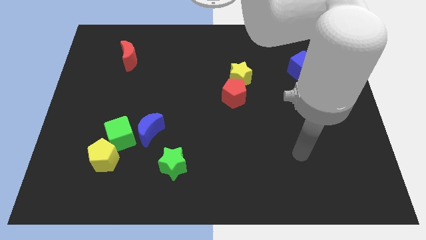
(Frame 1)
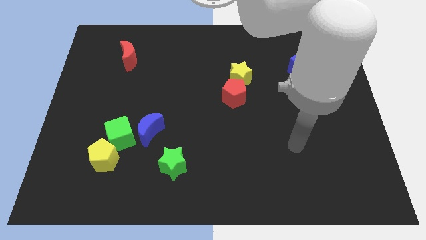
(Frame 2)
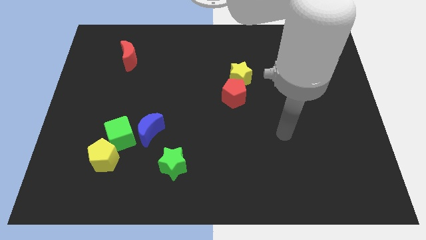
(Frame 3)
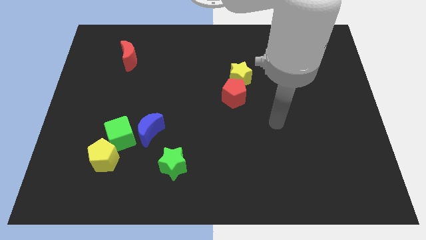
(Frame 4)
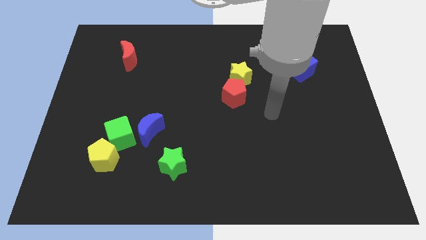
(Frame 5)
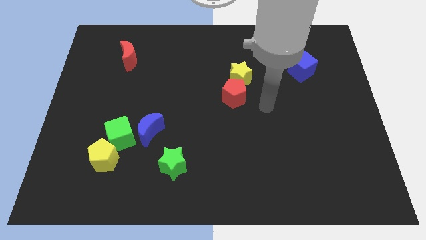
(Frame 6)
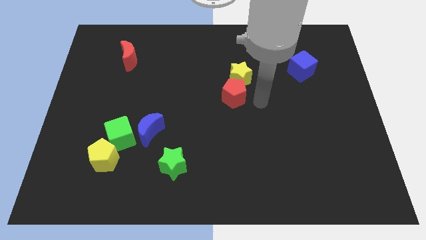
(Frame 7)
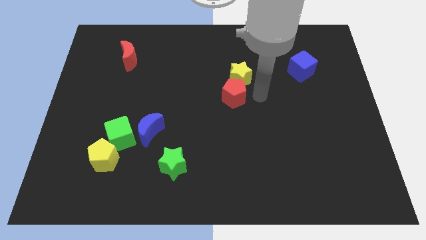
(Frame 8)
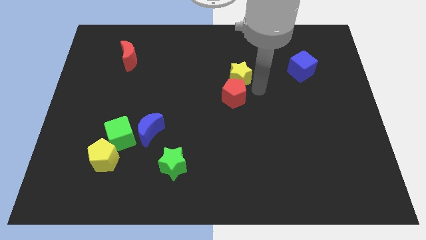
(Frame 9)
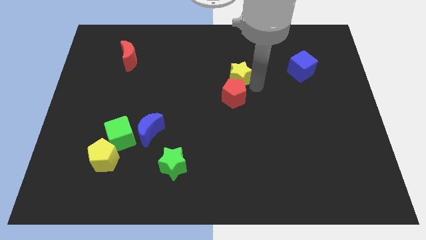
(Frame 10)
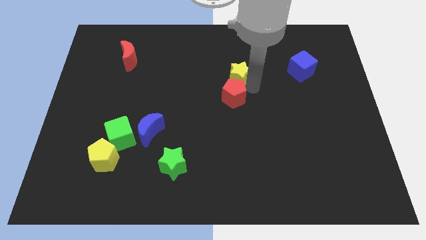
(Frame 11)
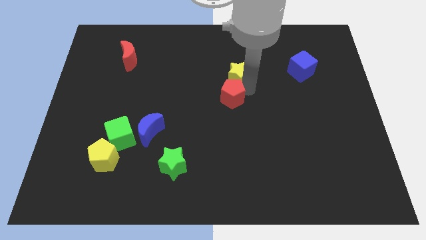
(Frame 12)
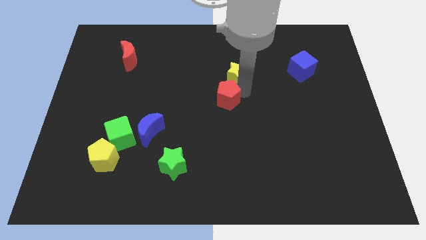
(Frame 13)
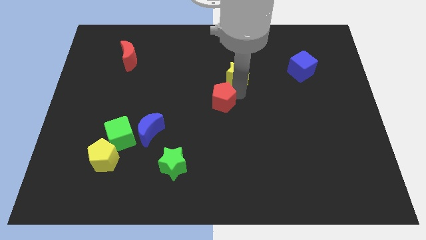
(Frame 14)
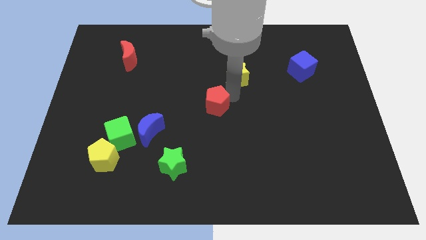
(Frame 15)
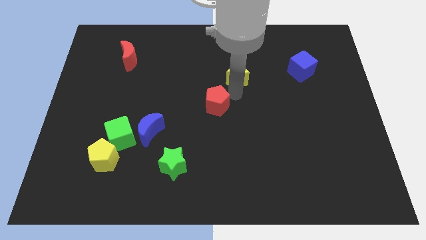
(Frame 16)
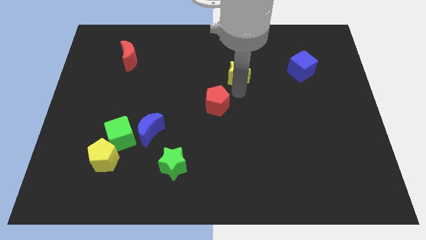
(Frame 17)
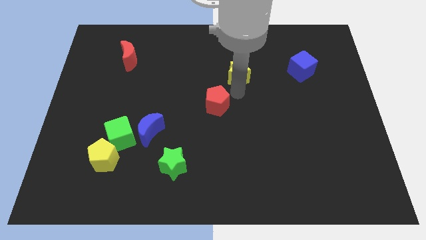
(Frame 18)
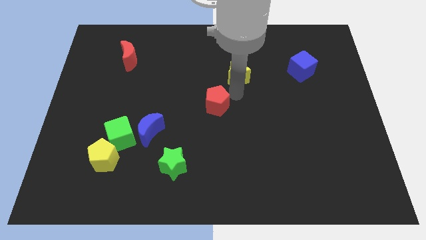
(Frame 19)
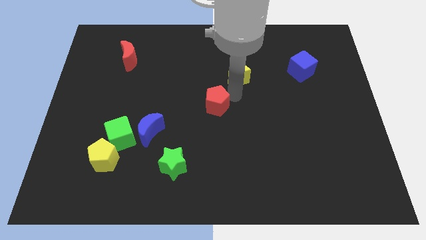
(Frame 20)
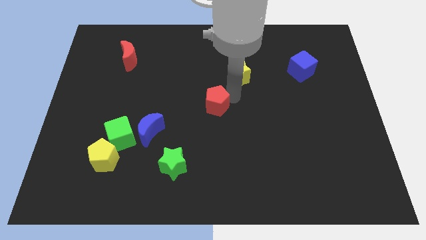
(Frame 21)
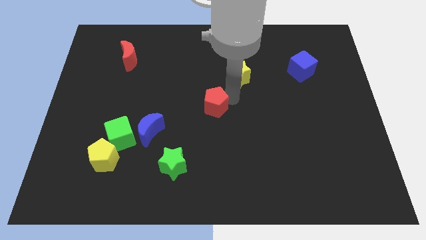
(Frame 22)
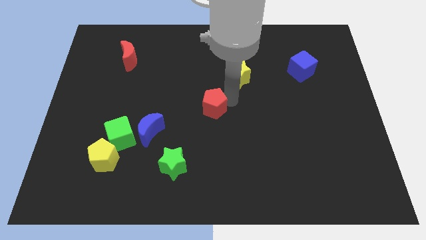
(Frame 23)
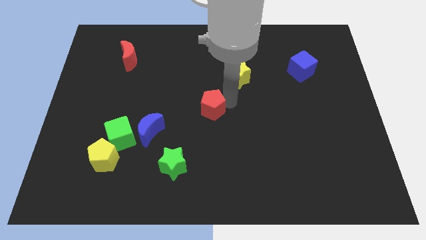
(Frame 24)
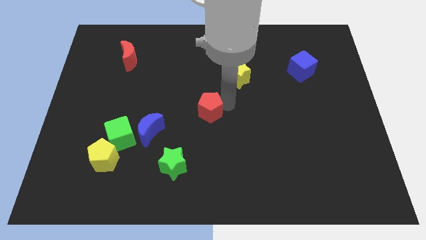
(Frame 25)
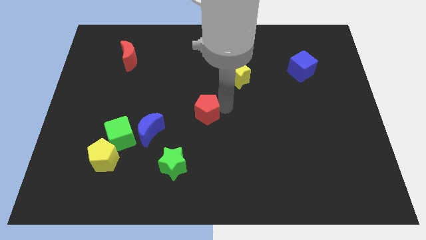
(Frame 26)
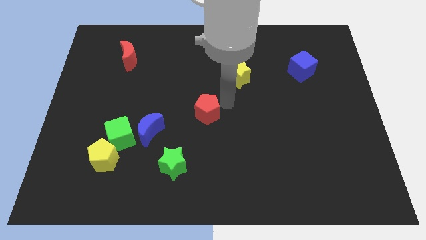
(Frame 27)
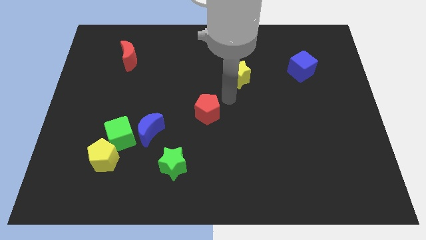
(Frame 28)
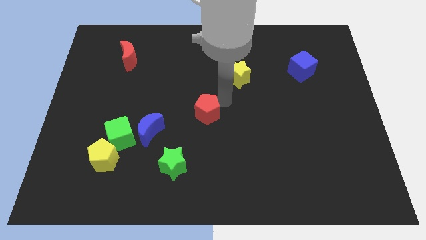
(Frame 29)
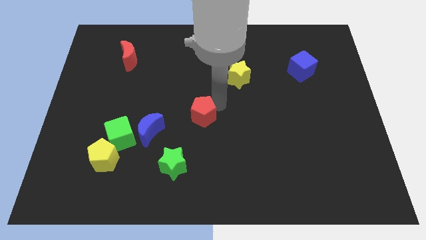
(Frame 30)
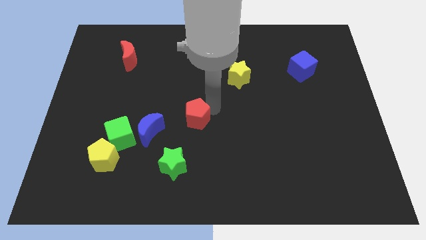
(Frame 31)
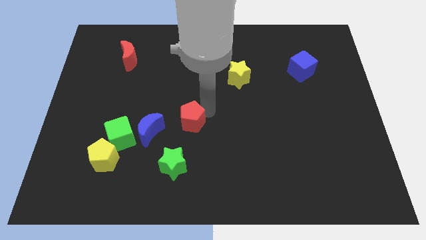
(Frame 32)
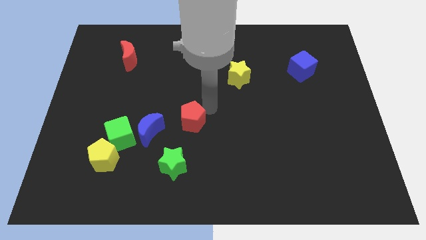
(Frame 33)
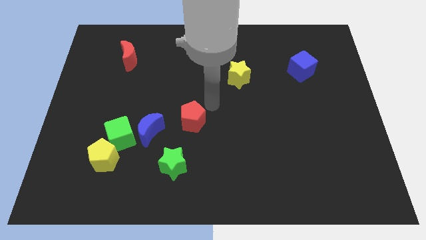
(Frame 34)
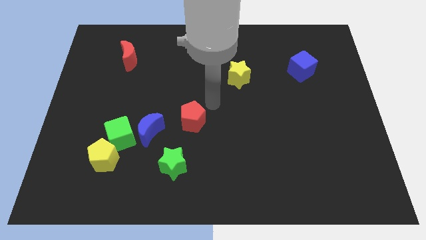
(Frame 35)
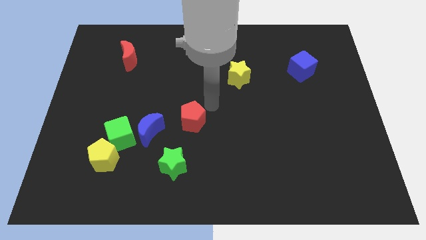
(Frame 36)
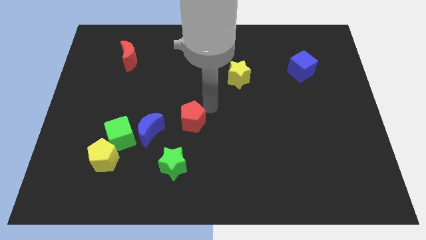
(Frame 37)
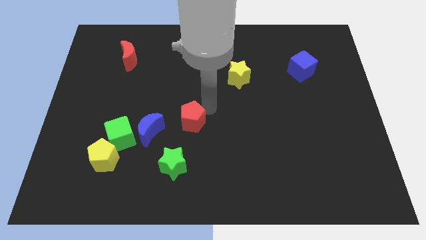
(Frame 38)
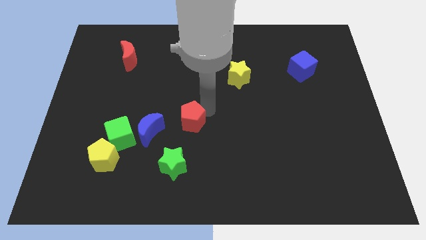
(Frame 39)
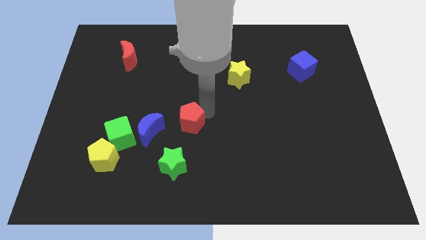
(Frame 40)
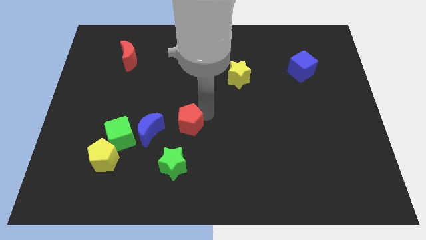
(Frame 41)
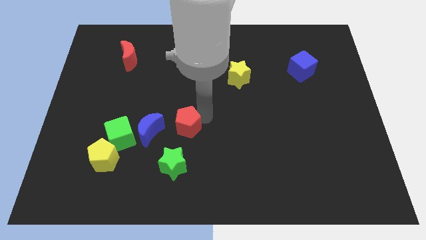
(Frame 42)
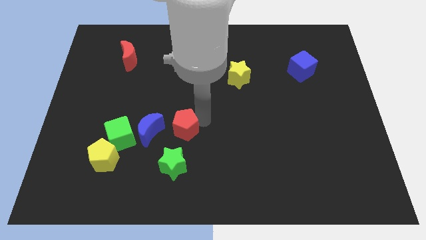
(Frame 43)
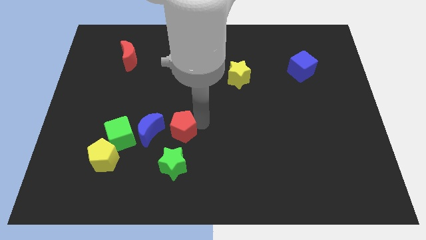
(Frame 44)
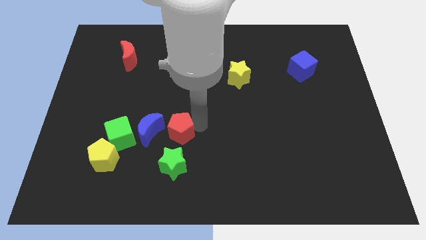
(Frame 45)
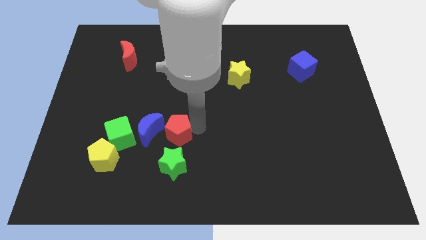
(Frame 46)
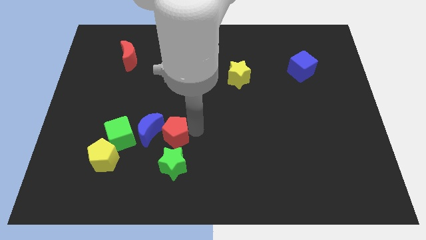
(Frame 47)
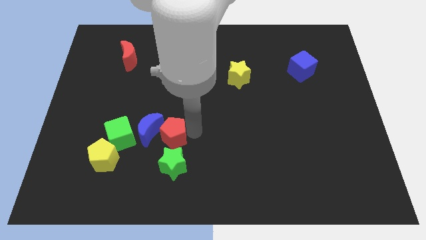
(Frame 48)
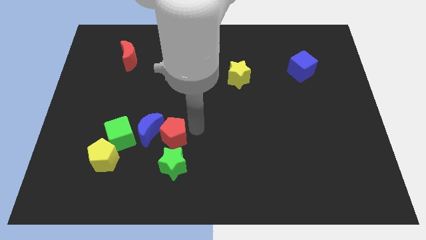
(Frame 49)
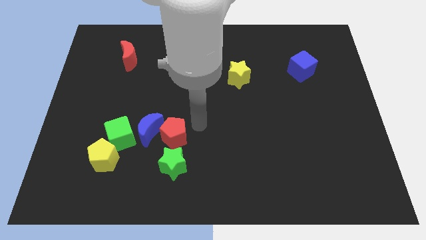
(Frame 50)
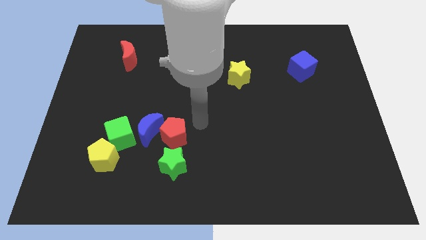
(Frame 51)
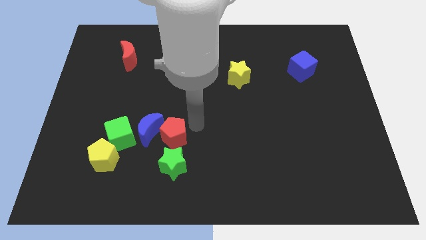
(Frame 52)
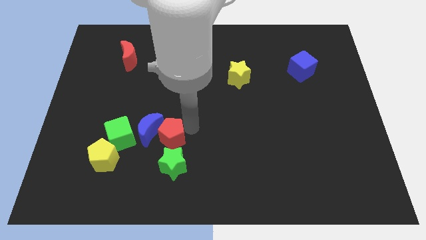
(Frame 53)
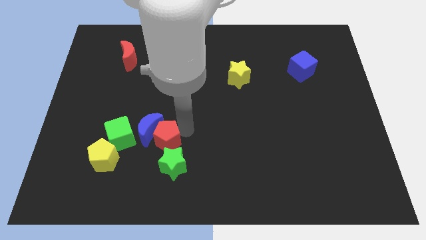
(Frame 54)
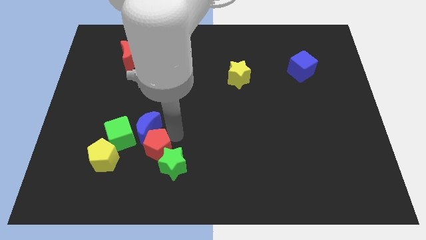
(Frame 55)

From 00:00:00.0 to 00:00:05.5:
move the red pentagon left of the green star

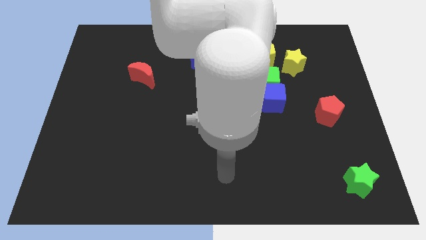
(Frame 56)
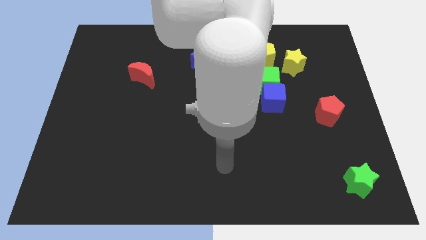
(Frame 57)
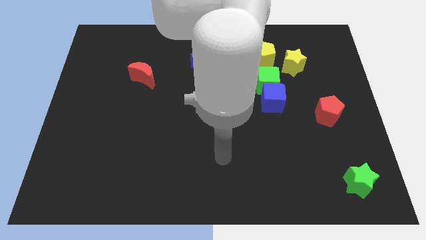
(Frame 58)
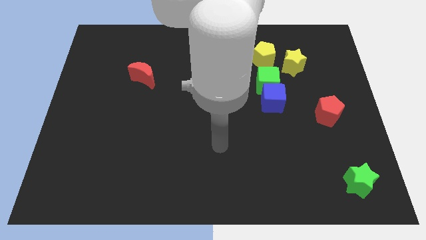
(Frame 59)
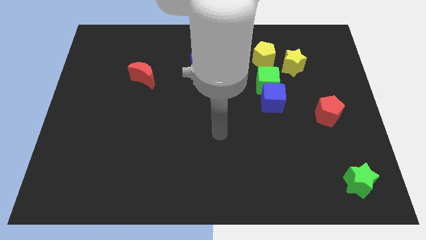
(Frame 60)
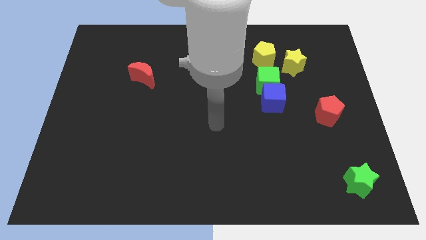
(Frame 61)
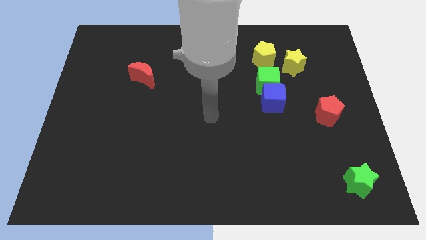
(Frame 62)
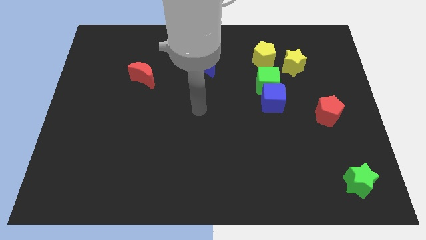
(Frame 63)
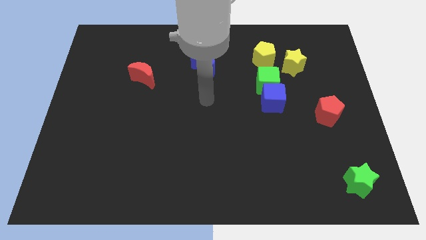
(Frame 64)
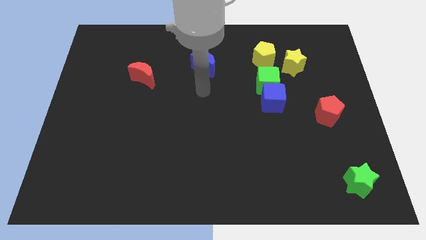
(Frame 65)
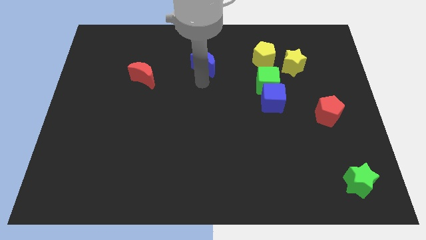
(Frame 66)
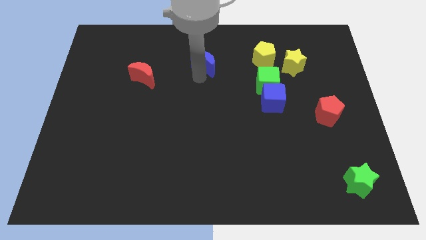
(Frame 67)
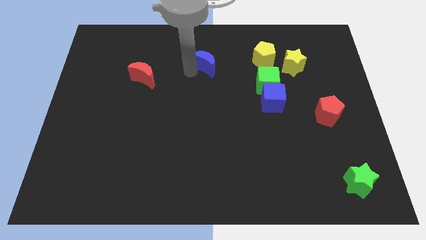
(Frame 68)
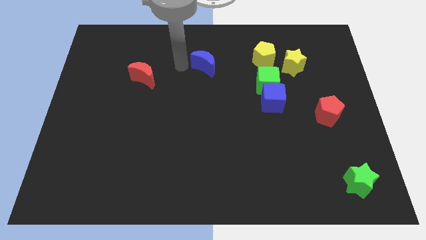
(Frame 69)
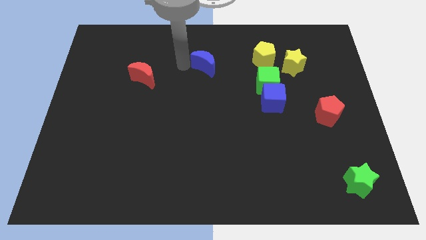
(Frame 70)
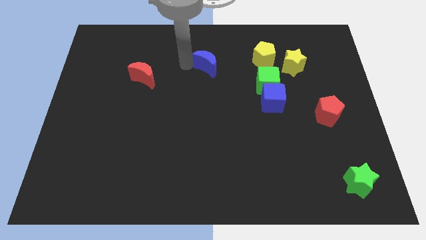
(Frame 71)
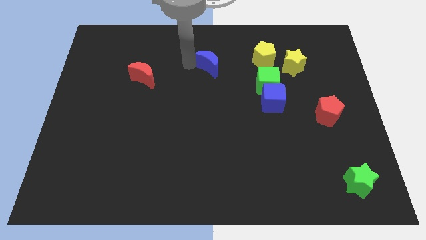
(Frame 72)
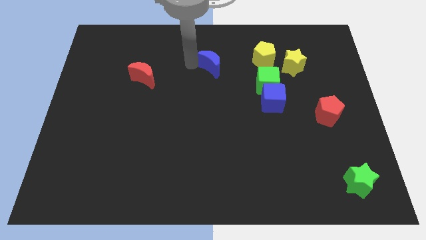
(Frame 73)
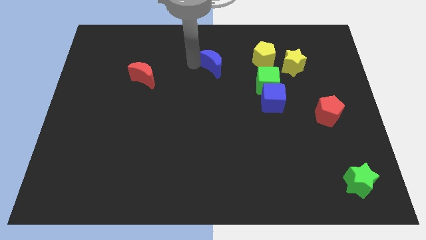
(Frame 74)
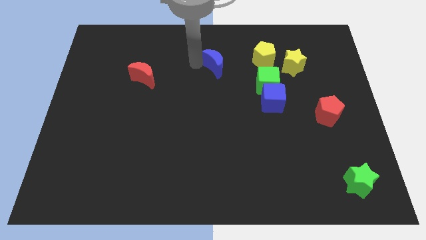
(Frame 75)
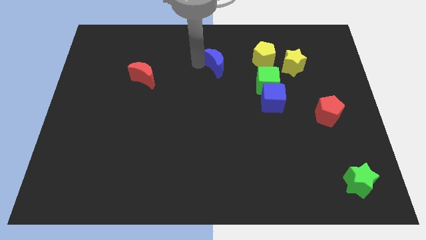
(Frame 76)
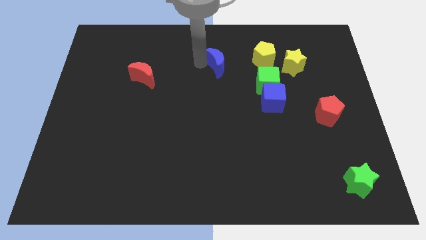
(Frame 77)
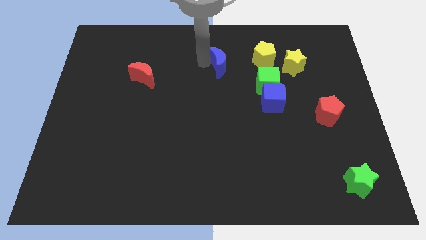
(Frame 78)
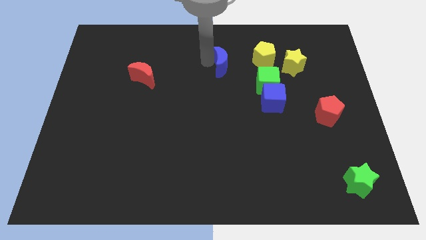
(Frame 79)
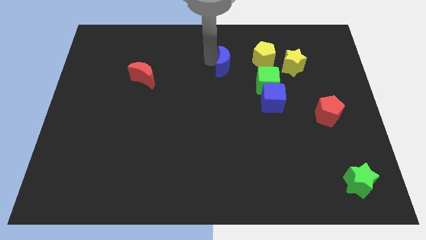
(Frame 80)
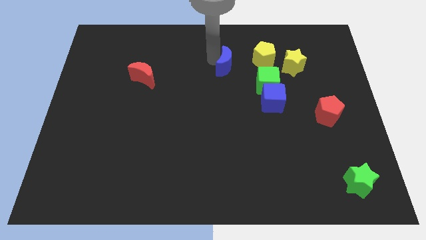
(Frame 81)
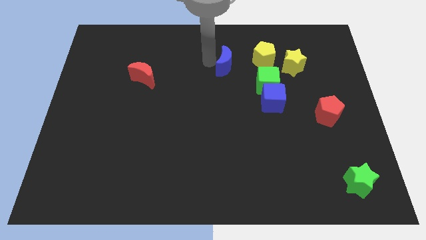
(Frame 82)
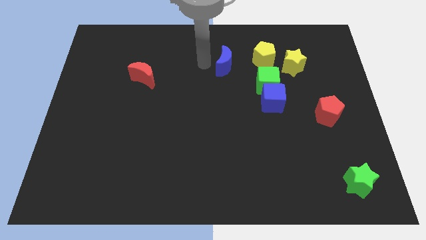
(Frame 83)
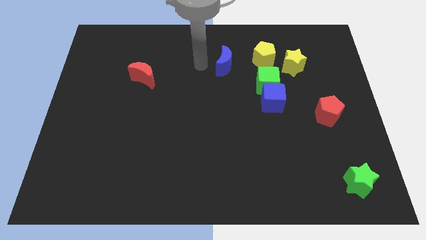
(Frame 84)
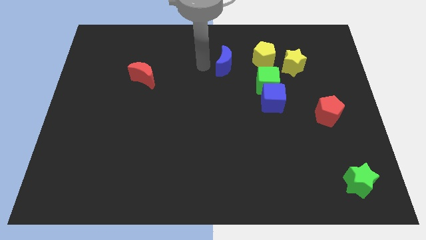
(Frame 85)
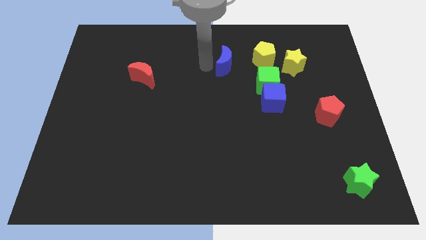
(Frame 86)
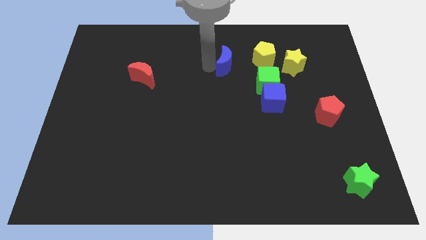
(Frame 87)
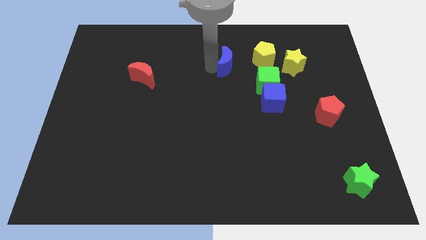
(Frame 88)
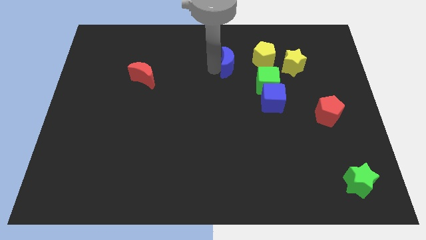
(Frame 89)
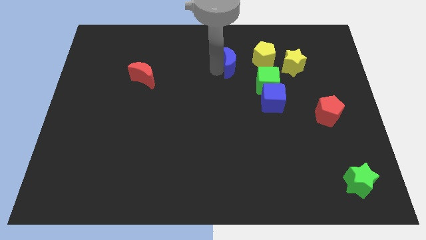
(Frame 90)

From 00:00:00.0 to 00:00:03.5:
push the blue moon just left of the yellow star
